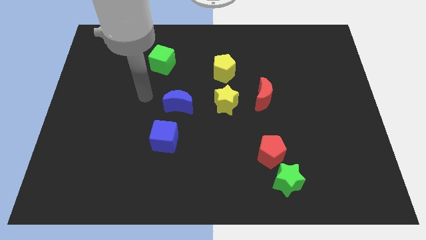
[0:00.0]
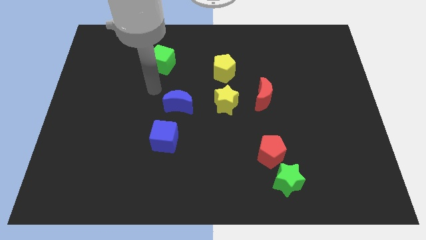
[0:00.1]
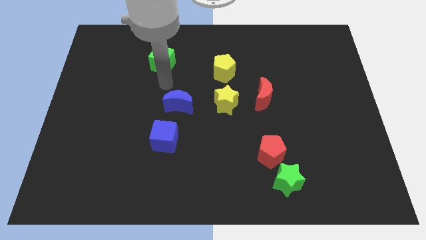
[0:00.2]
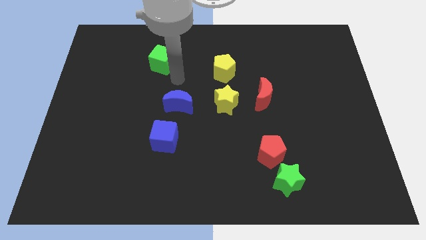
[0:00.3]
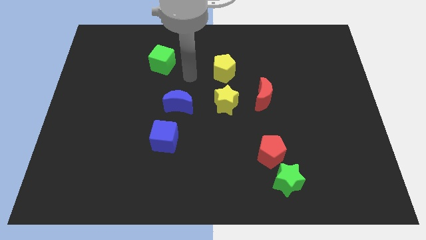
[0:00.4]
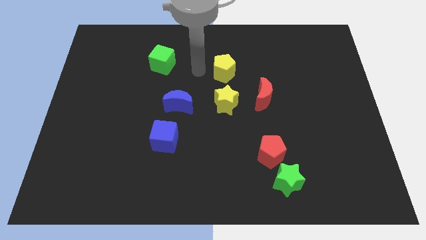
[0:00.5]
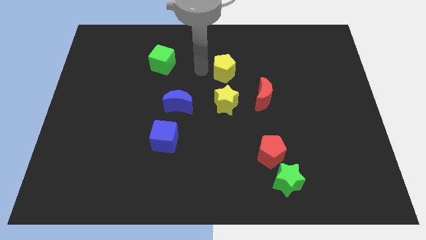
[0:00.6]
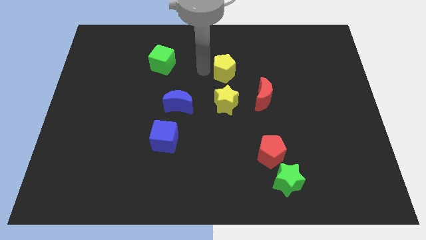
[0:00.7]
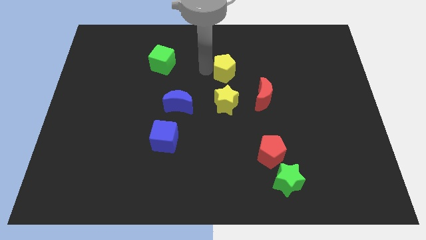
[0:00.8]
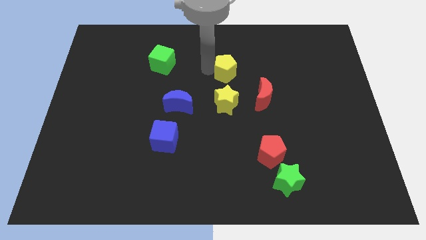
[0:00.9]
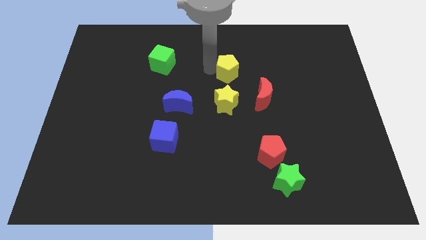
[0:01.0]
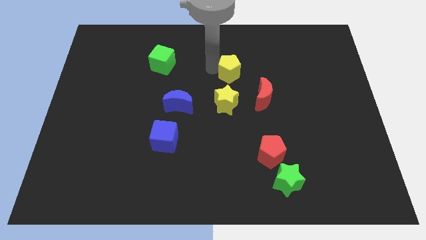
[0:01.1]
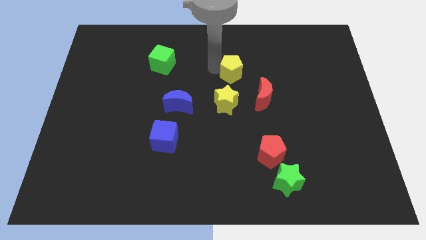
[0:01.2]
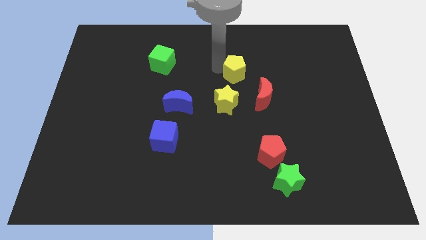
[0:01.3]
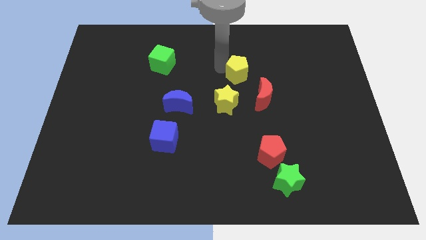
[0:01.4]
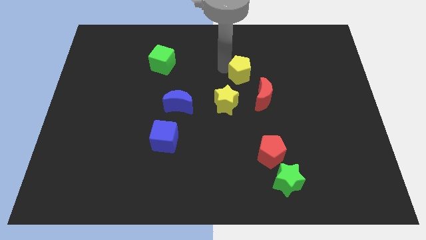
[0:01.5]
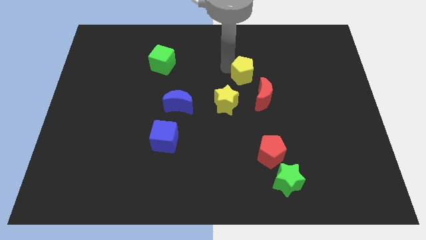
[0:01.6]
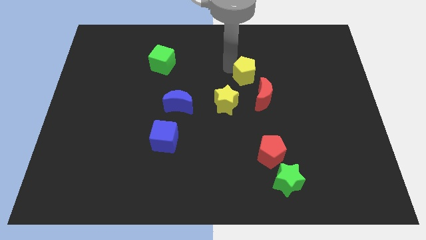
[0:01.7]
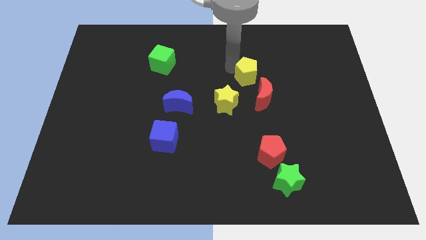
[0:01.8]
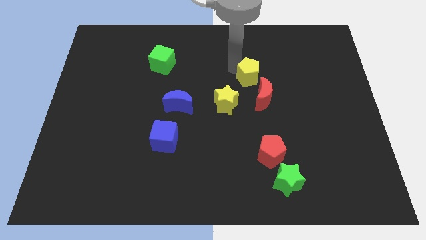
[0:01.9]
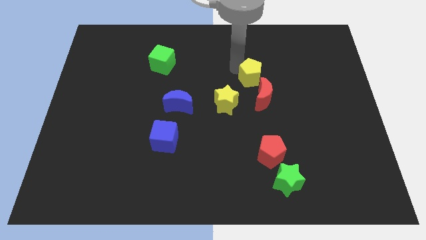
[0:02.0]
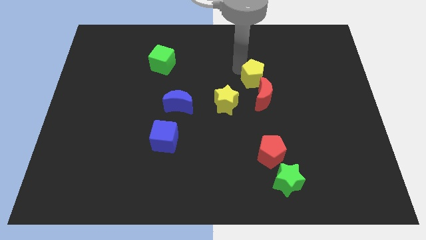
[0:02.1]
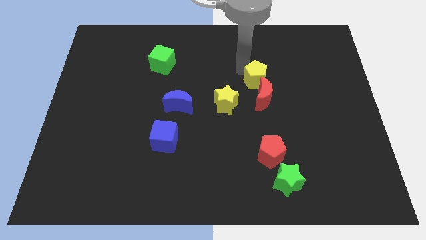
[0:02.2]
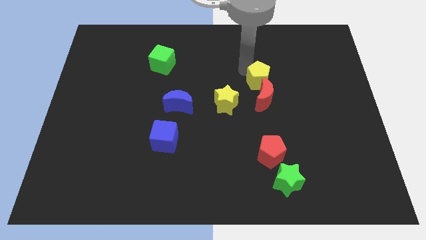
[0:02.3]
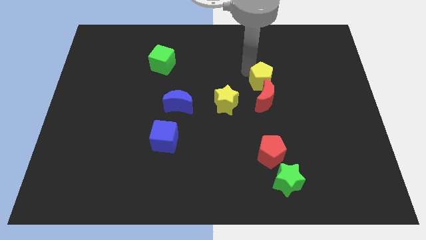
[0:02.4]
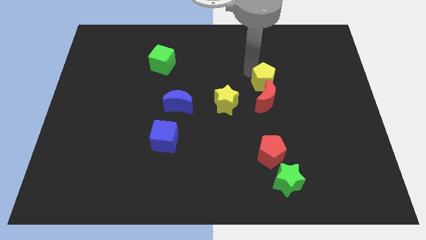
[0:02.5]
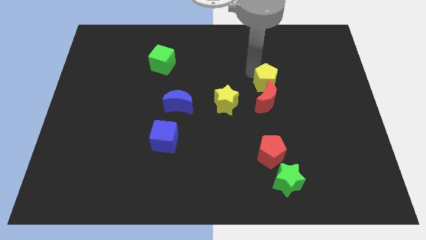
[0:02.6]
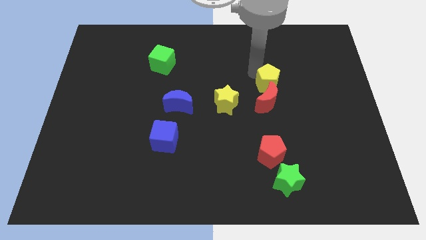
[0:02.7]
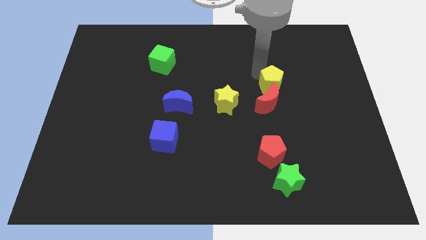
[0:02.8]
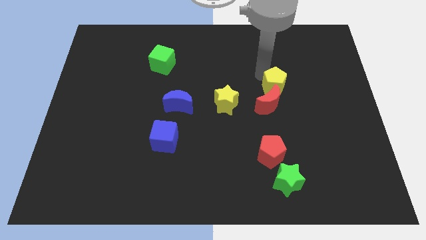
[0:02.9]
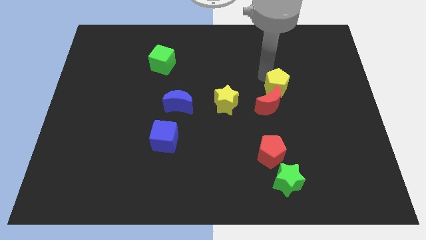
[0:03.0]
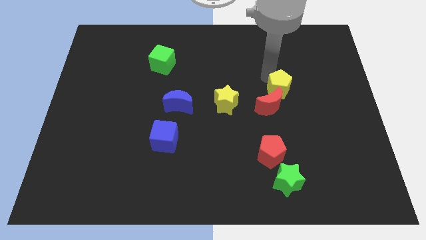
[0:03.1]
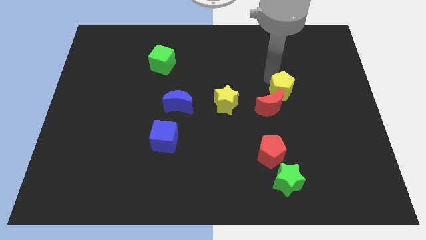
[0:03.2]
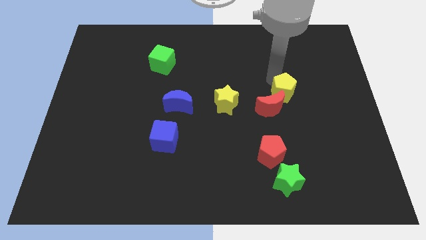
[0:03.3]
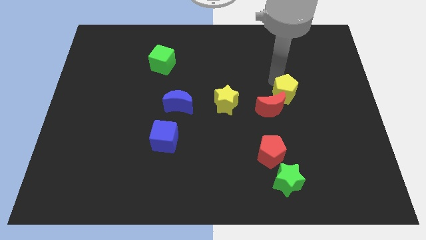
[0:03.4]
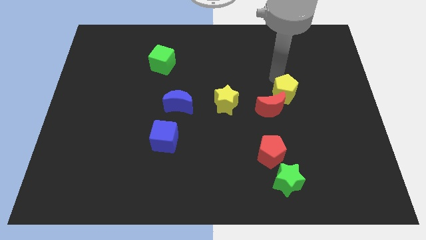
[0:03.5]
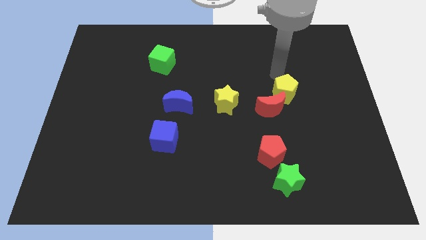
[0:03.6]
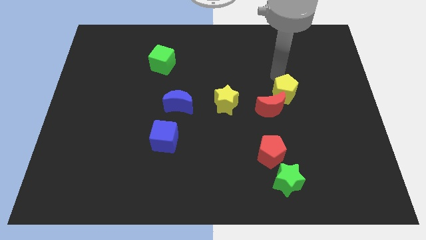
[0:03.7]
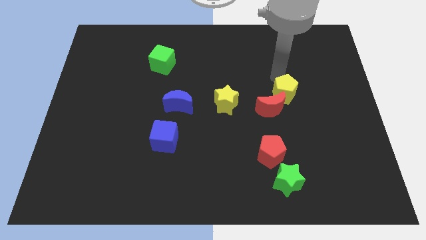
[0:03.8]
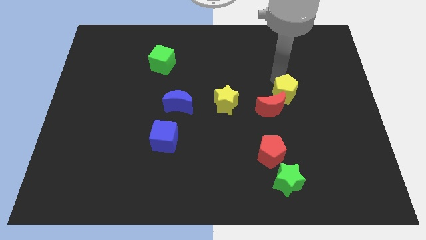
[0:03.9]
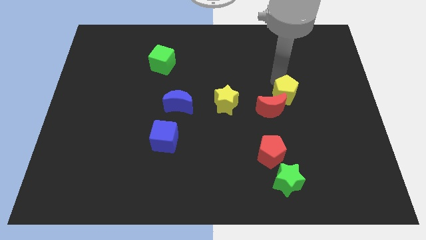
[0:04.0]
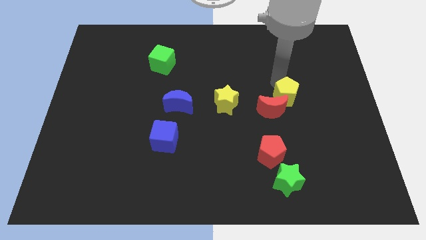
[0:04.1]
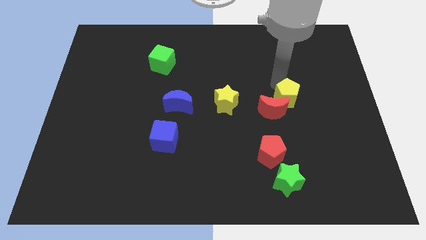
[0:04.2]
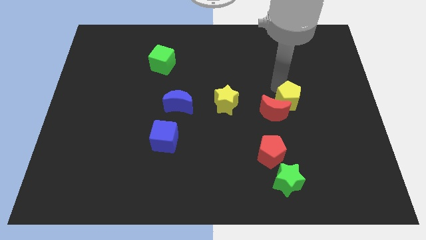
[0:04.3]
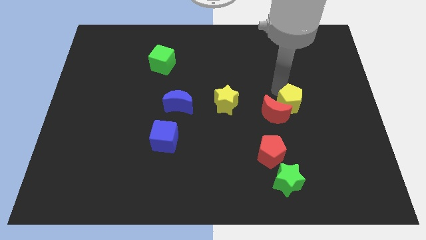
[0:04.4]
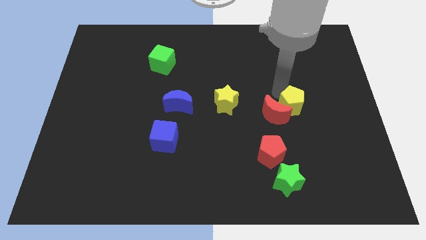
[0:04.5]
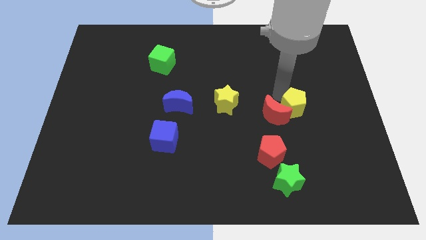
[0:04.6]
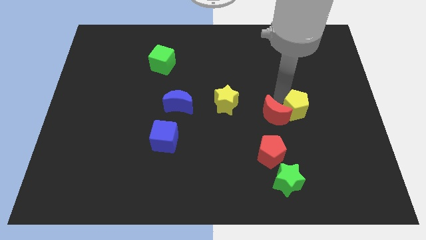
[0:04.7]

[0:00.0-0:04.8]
slide the yellow pentagon down and to the right diagonally

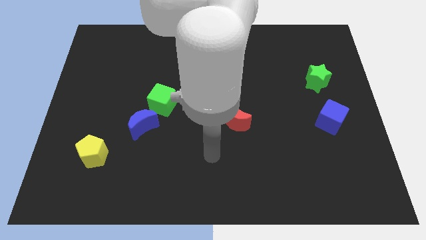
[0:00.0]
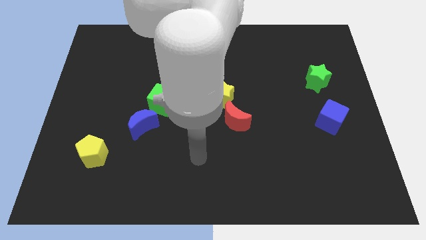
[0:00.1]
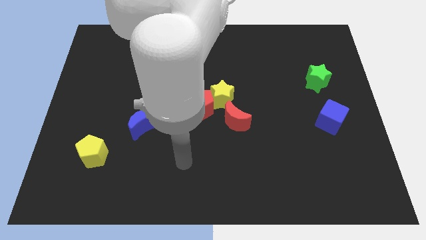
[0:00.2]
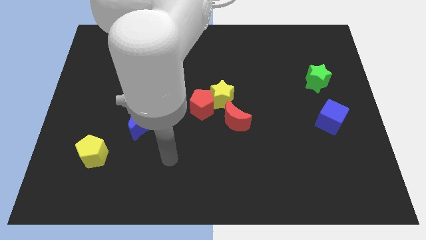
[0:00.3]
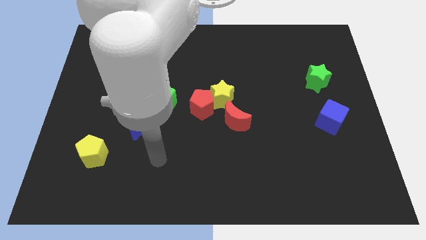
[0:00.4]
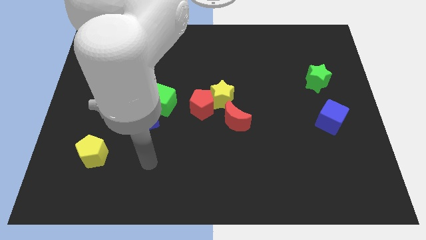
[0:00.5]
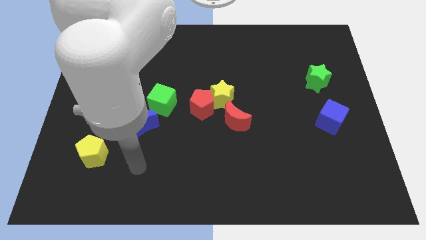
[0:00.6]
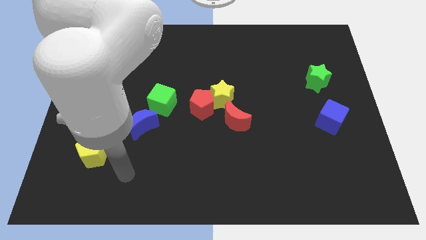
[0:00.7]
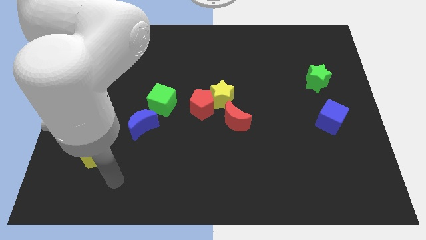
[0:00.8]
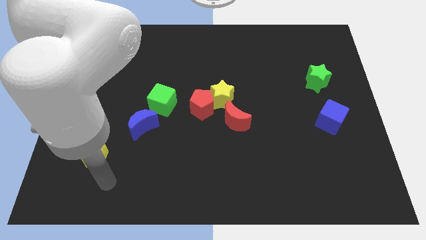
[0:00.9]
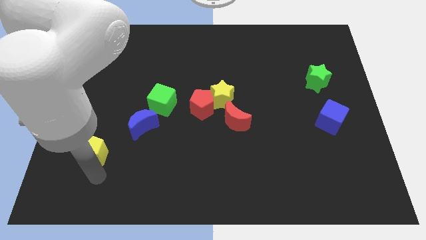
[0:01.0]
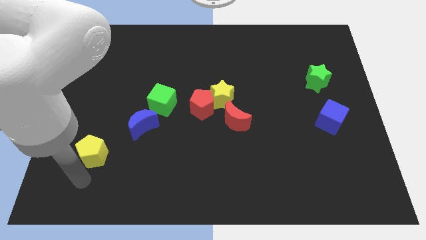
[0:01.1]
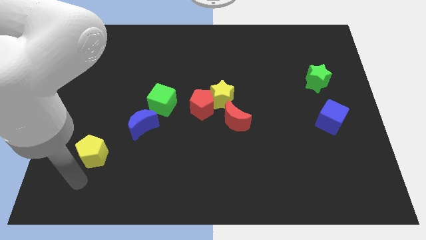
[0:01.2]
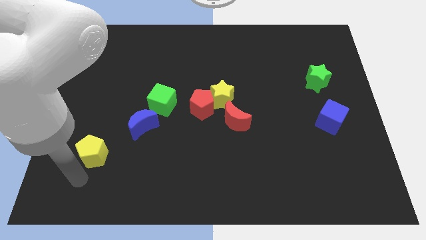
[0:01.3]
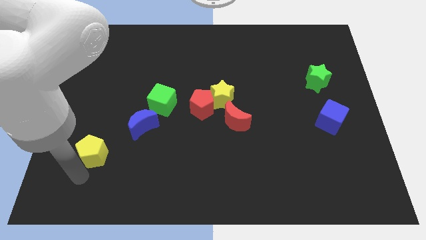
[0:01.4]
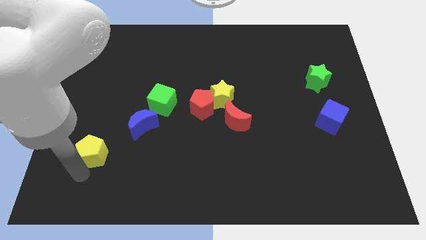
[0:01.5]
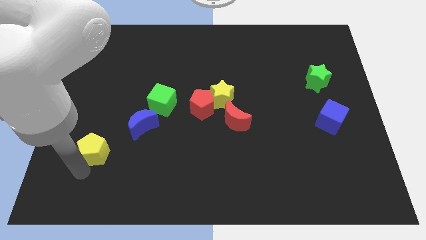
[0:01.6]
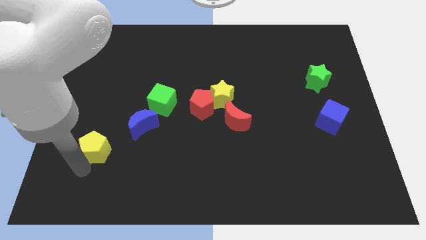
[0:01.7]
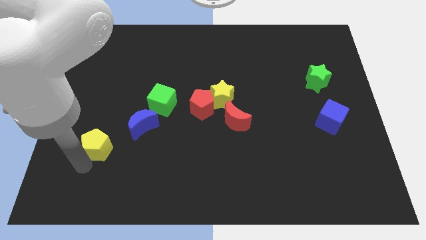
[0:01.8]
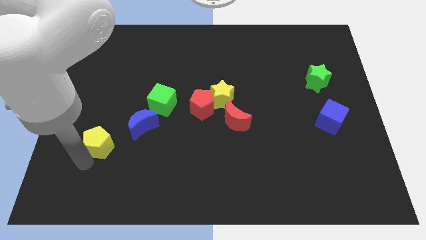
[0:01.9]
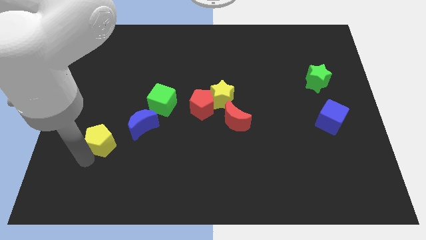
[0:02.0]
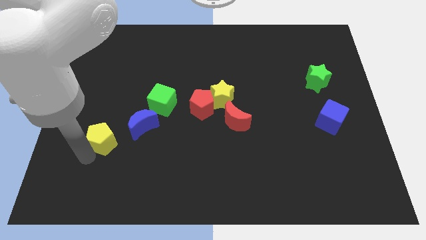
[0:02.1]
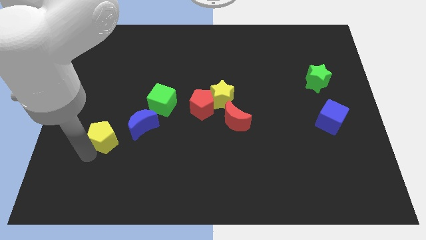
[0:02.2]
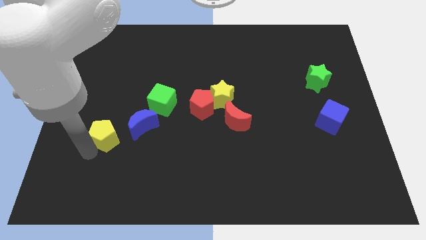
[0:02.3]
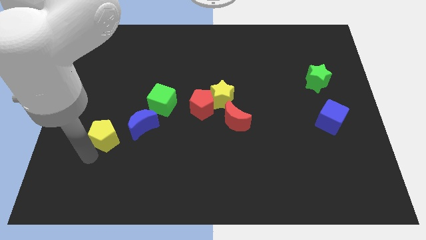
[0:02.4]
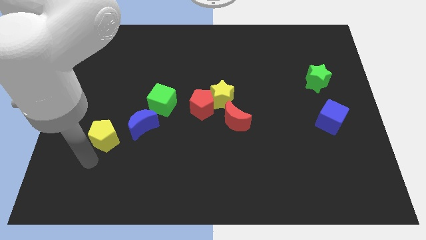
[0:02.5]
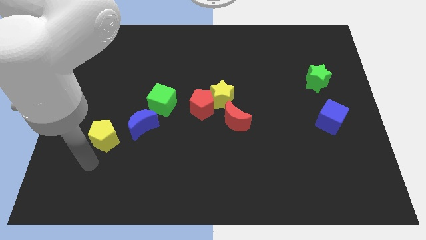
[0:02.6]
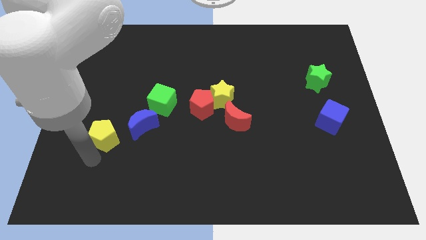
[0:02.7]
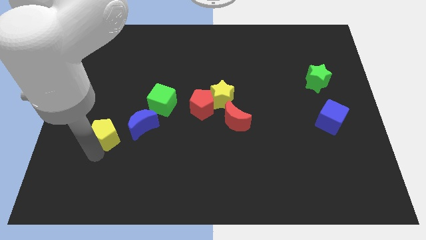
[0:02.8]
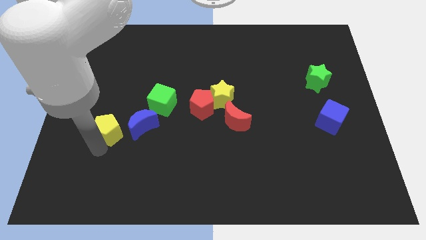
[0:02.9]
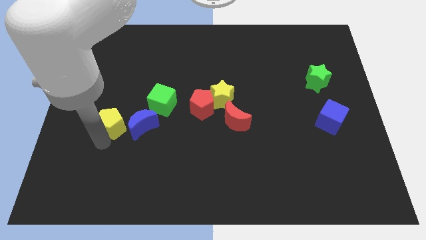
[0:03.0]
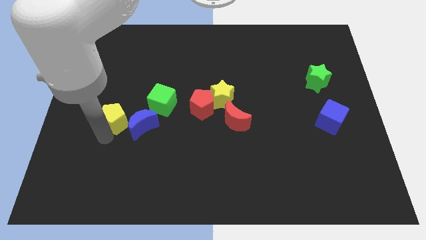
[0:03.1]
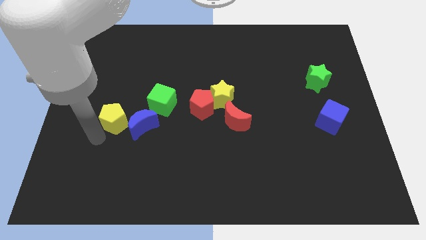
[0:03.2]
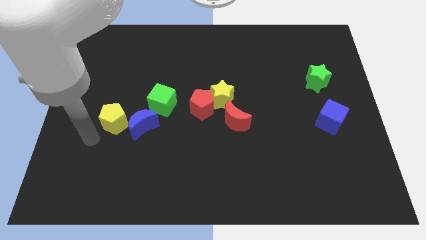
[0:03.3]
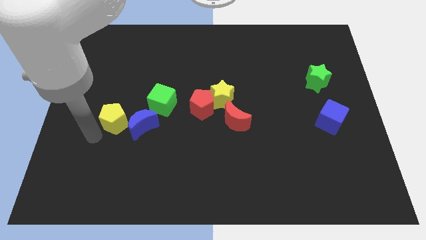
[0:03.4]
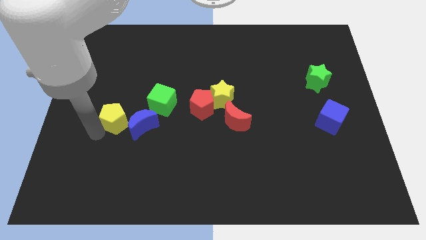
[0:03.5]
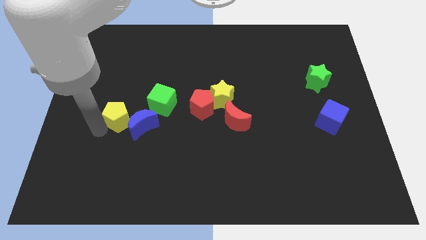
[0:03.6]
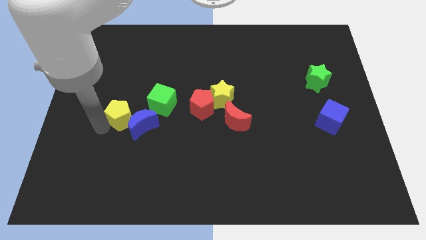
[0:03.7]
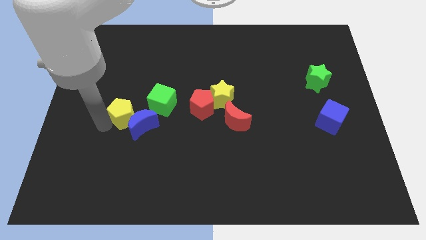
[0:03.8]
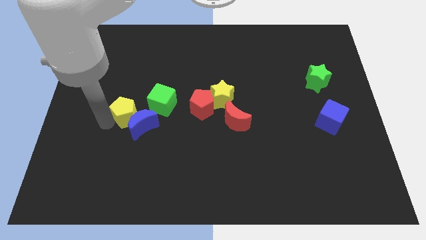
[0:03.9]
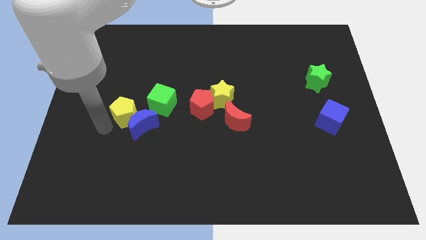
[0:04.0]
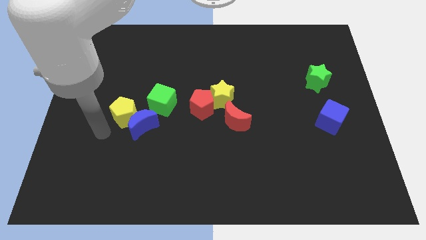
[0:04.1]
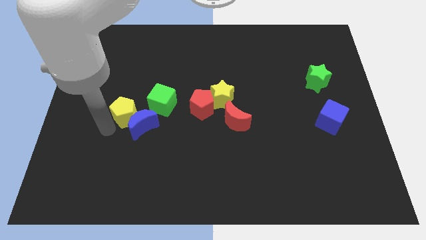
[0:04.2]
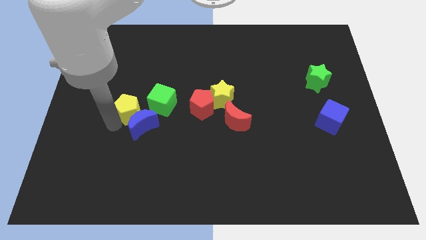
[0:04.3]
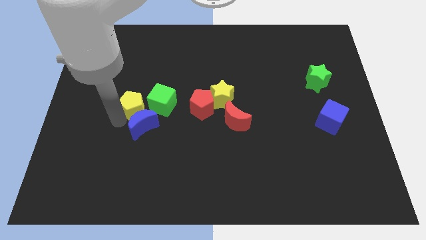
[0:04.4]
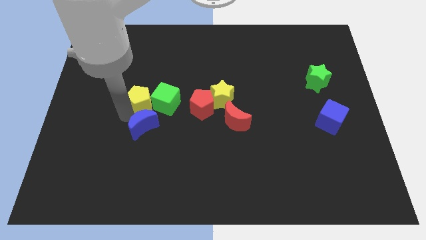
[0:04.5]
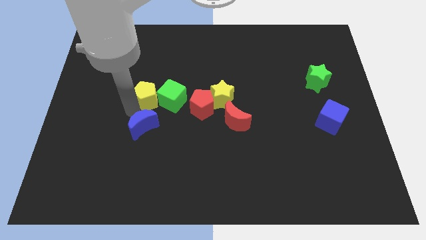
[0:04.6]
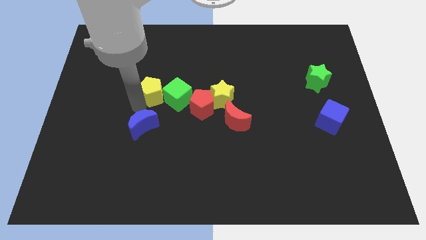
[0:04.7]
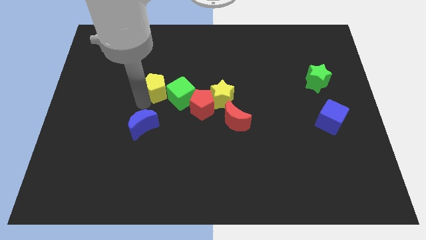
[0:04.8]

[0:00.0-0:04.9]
slide the yellow pentagon up and to the right
